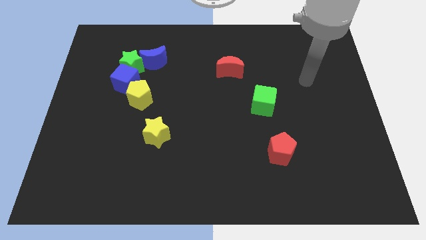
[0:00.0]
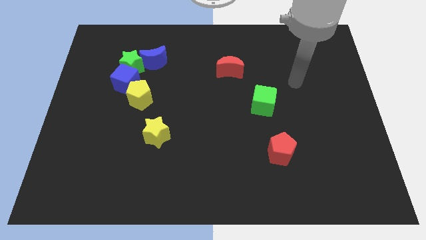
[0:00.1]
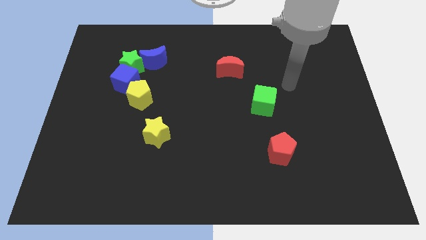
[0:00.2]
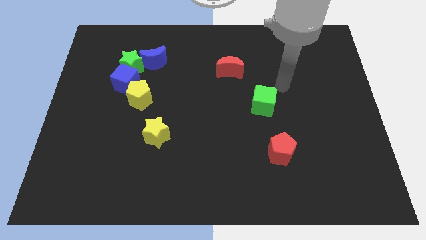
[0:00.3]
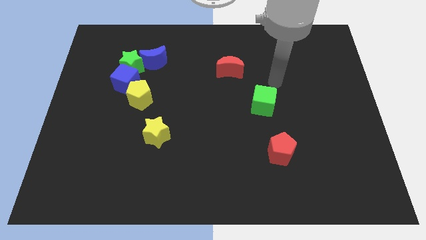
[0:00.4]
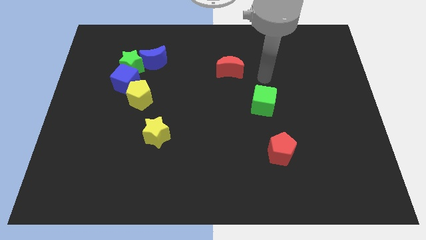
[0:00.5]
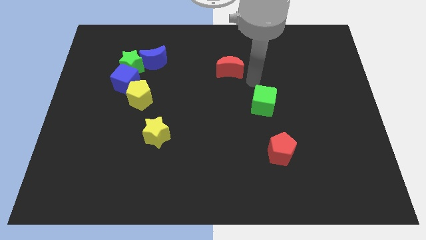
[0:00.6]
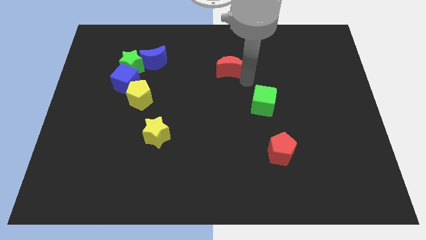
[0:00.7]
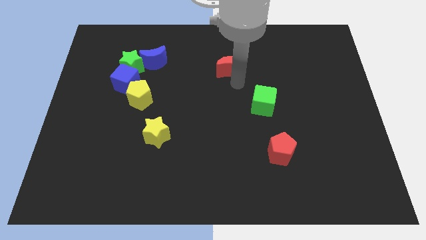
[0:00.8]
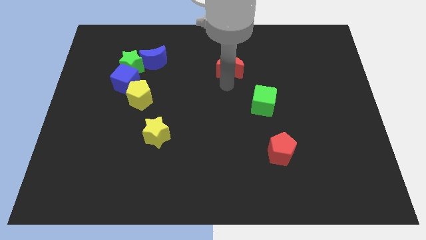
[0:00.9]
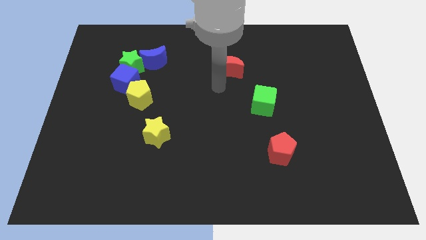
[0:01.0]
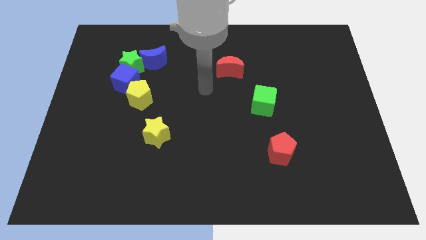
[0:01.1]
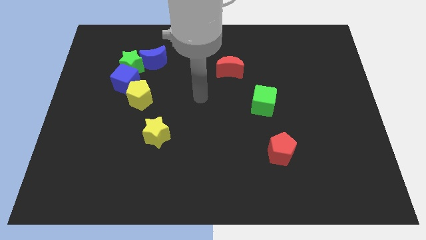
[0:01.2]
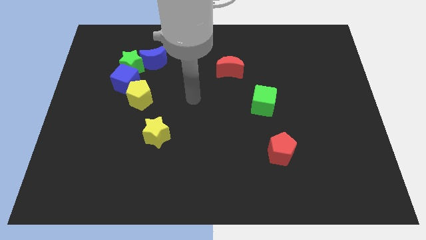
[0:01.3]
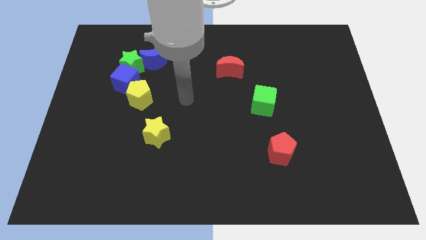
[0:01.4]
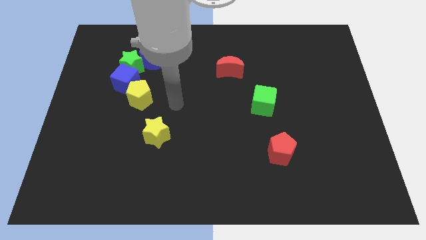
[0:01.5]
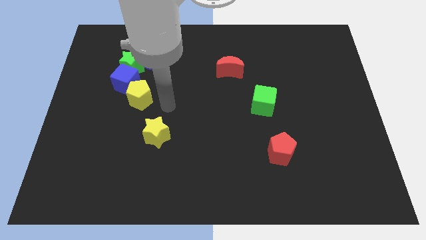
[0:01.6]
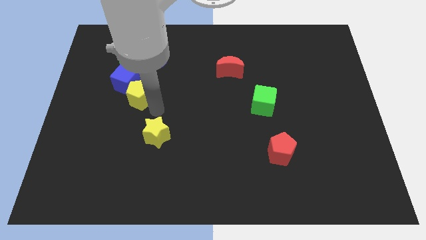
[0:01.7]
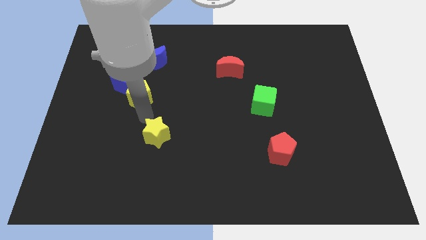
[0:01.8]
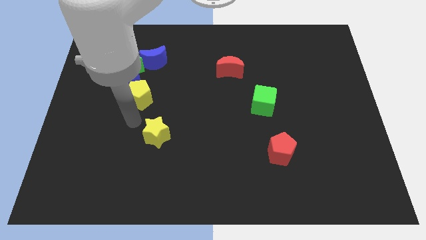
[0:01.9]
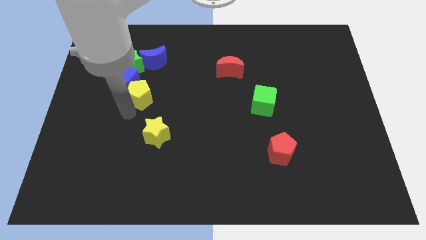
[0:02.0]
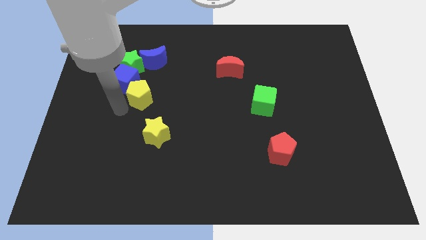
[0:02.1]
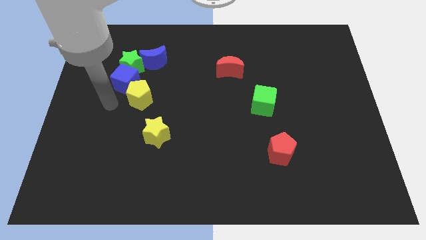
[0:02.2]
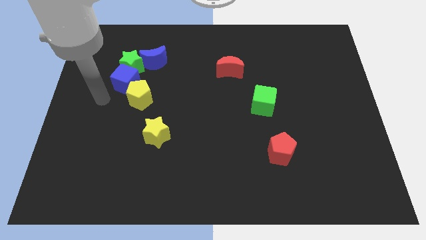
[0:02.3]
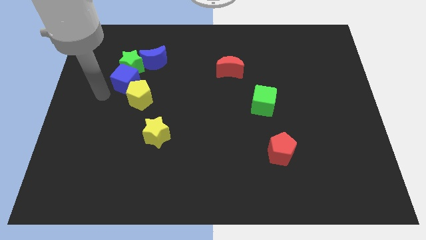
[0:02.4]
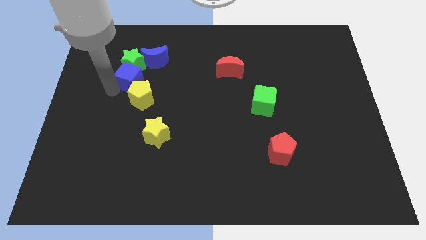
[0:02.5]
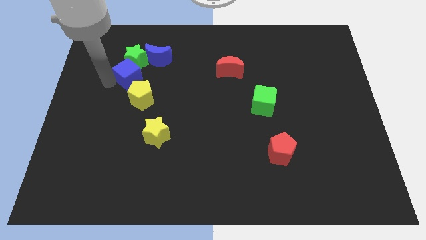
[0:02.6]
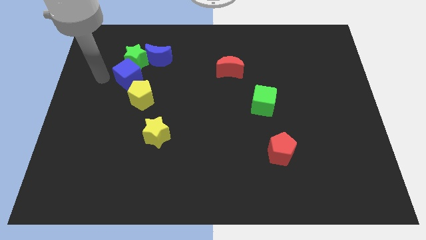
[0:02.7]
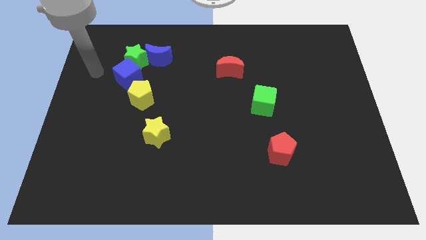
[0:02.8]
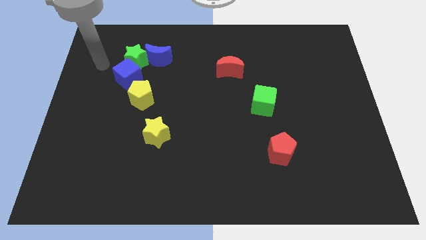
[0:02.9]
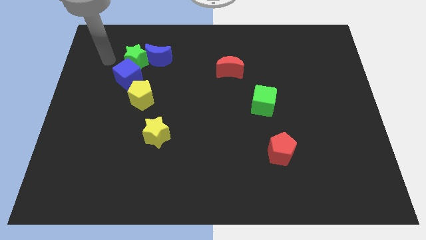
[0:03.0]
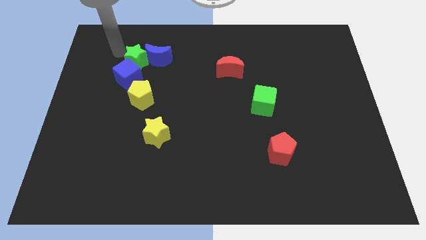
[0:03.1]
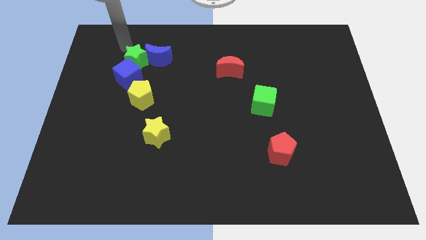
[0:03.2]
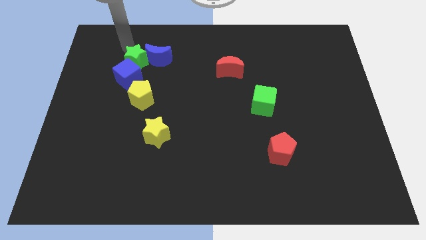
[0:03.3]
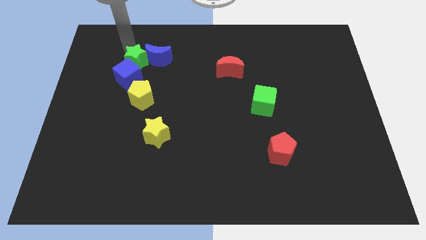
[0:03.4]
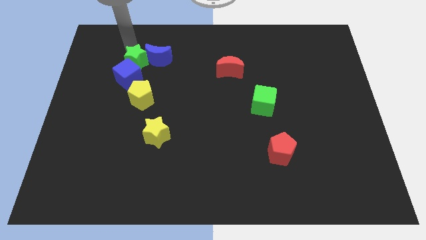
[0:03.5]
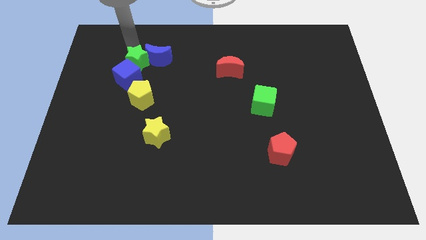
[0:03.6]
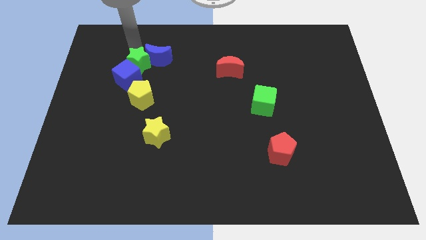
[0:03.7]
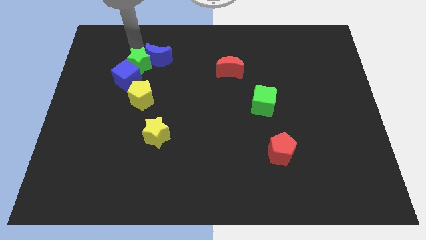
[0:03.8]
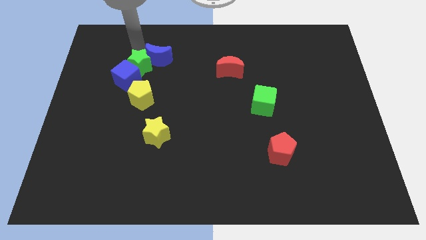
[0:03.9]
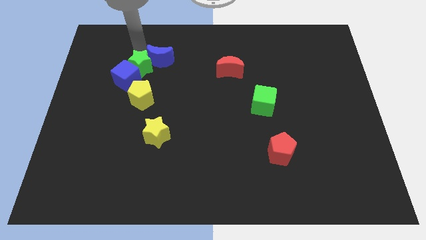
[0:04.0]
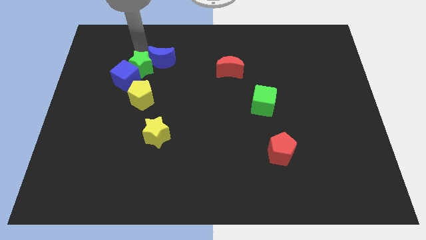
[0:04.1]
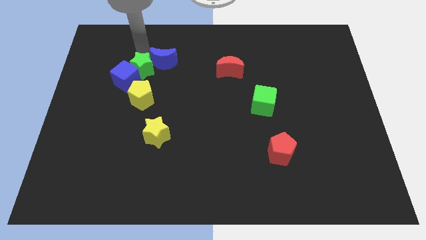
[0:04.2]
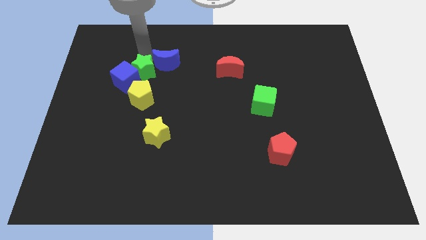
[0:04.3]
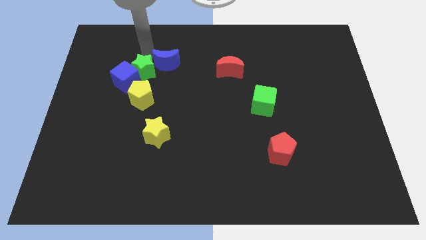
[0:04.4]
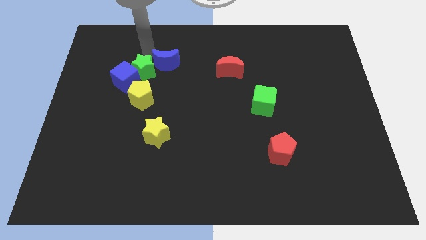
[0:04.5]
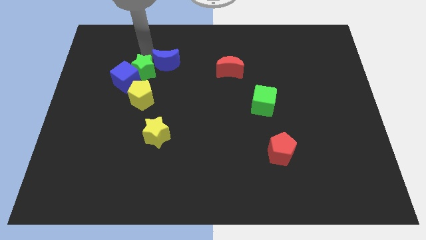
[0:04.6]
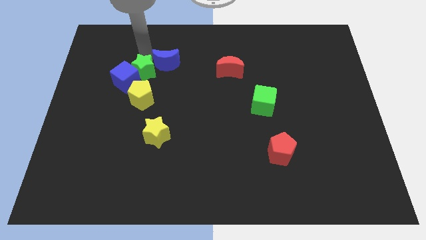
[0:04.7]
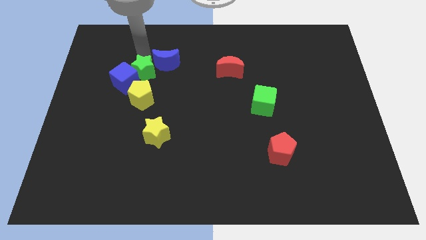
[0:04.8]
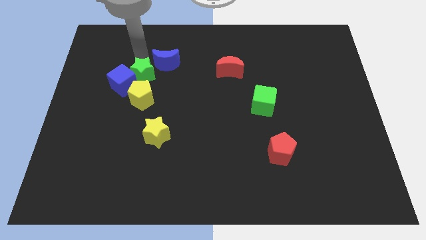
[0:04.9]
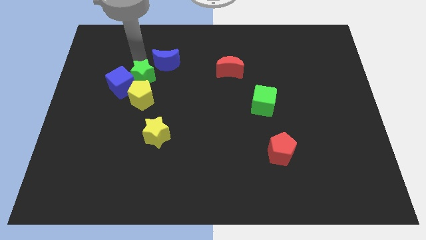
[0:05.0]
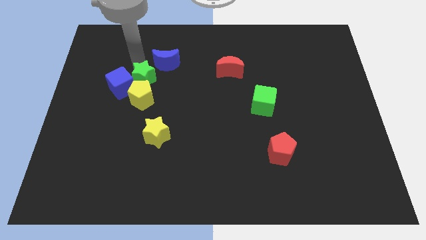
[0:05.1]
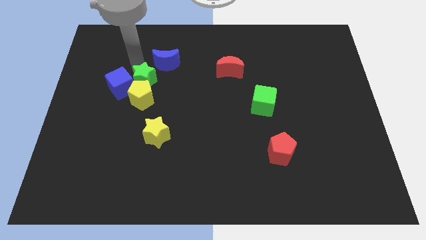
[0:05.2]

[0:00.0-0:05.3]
move the green star towards the yellow pentagon
